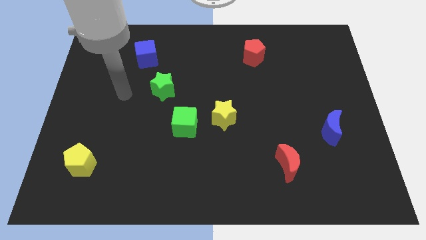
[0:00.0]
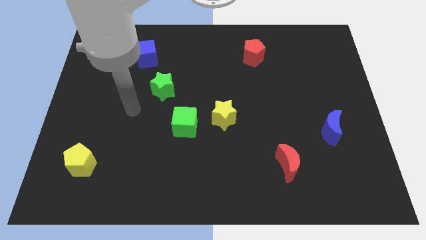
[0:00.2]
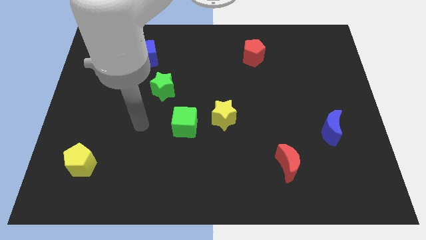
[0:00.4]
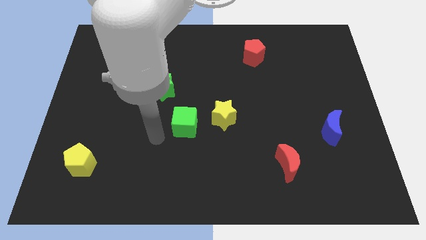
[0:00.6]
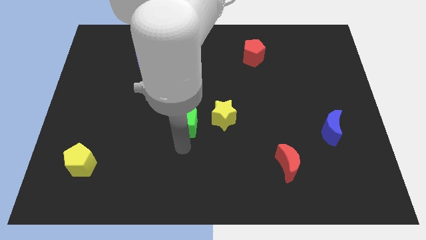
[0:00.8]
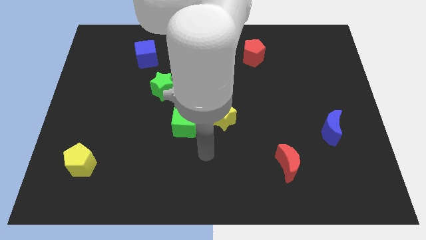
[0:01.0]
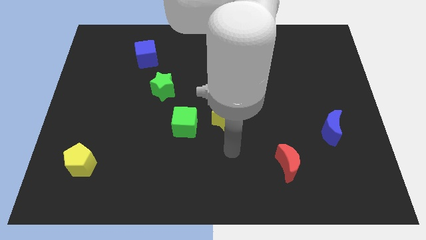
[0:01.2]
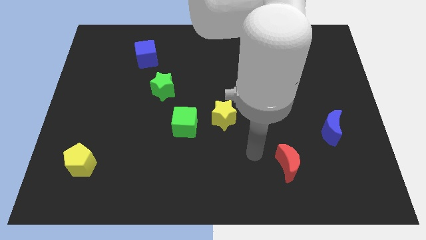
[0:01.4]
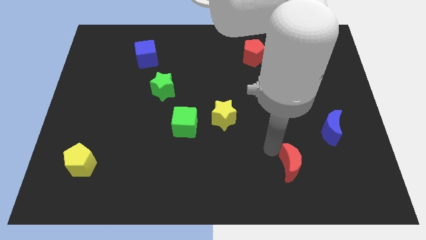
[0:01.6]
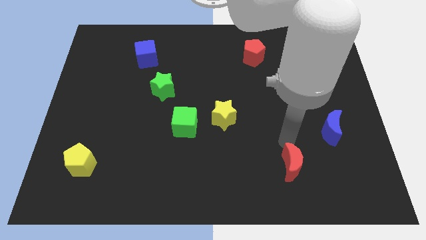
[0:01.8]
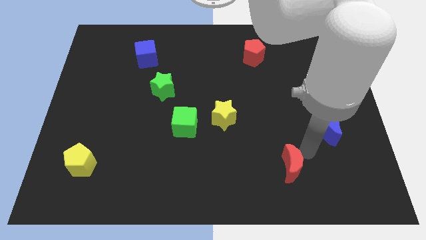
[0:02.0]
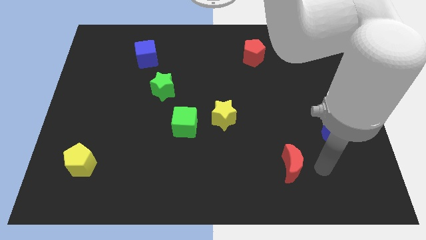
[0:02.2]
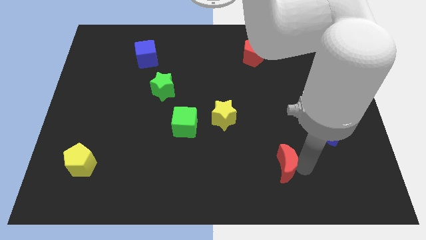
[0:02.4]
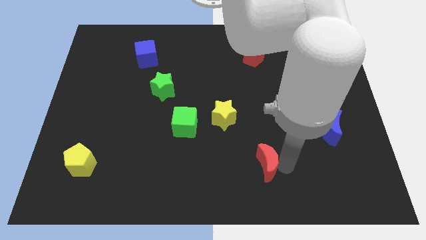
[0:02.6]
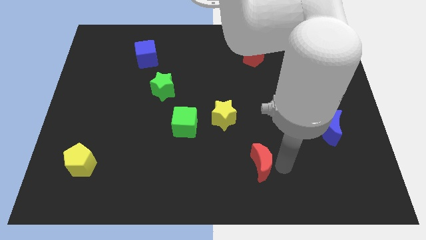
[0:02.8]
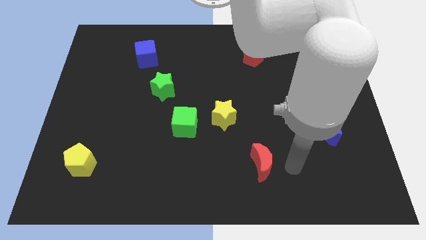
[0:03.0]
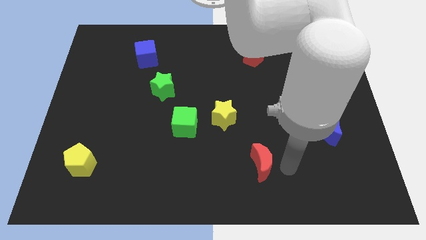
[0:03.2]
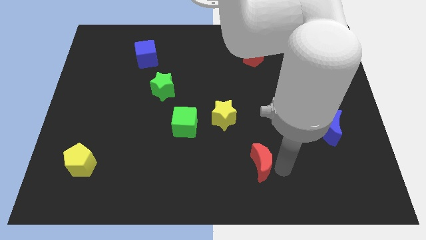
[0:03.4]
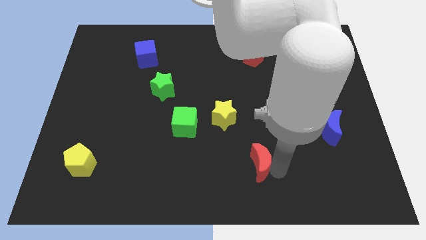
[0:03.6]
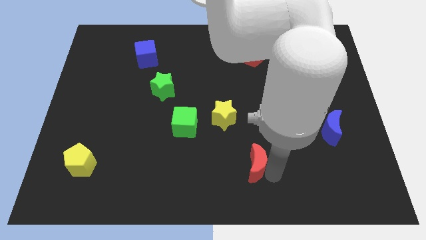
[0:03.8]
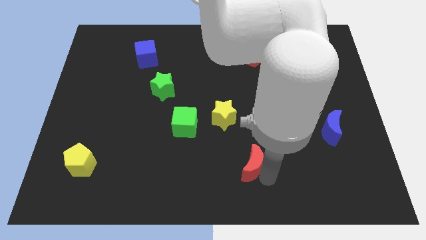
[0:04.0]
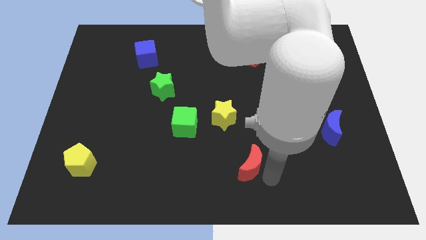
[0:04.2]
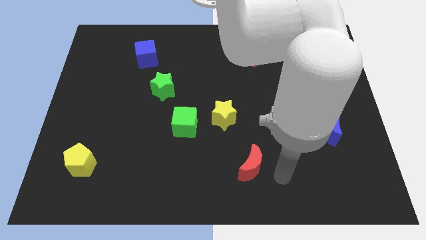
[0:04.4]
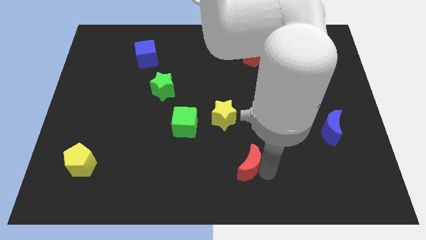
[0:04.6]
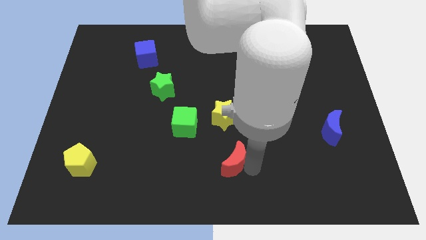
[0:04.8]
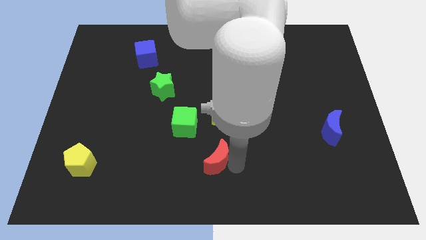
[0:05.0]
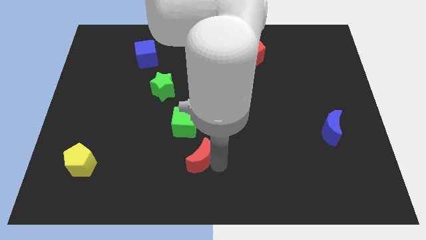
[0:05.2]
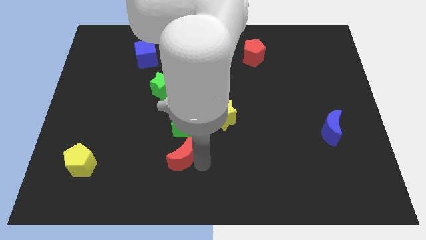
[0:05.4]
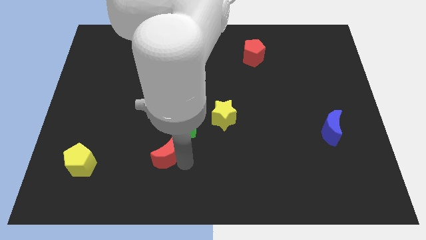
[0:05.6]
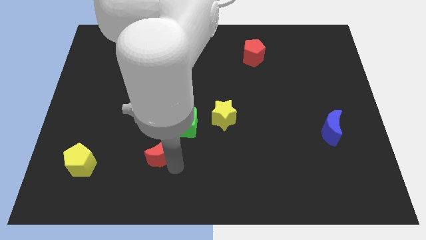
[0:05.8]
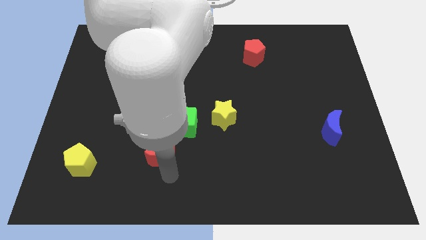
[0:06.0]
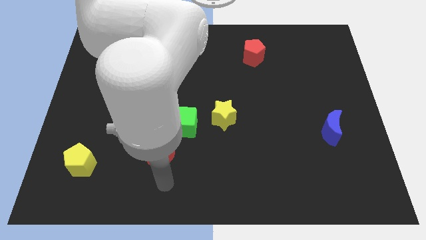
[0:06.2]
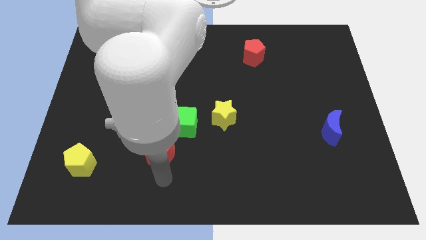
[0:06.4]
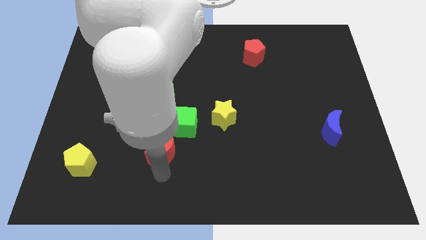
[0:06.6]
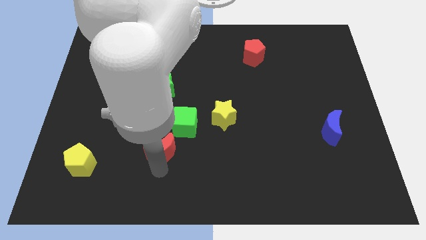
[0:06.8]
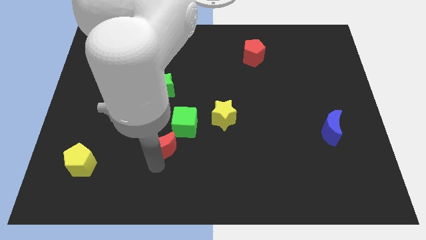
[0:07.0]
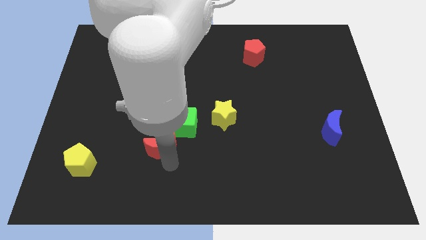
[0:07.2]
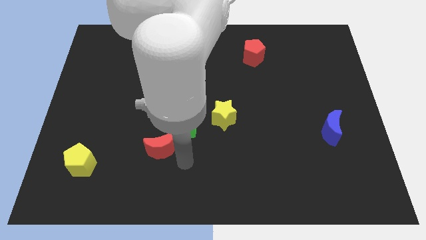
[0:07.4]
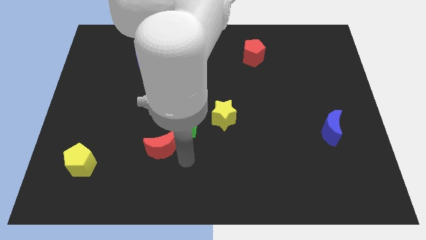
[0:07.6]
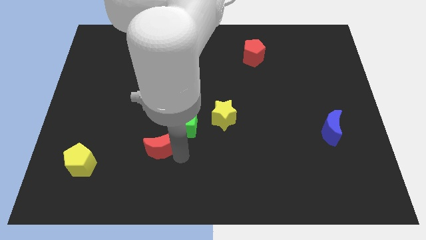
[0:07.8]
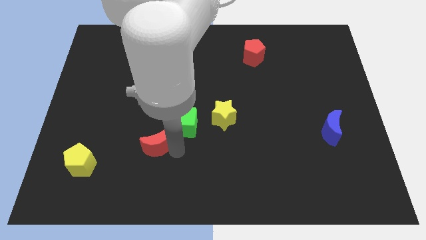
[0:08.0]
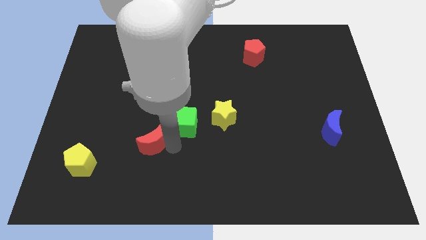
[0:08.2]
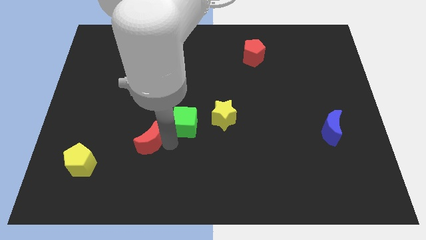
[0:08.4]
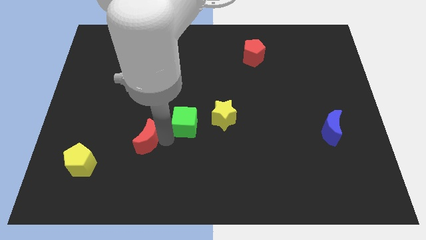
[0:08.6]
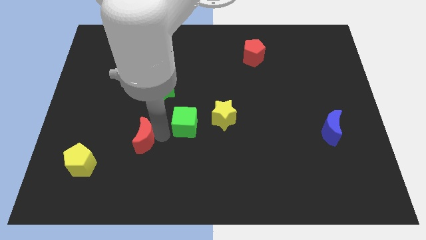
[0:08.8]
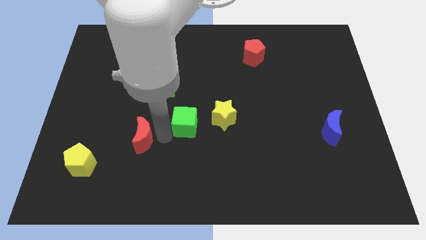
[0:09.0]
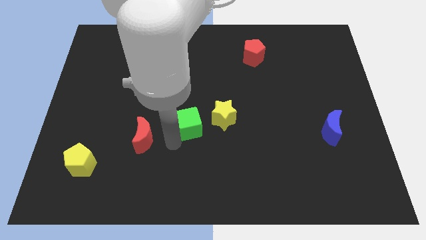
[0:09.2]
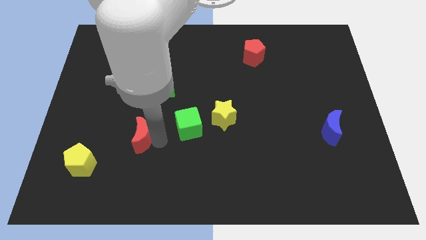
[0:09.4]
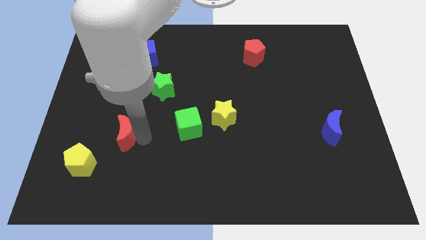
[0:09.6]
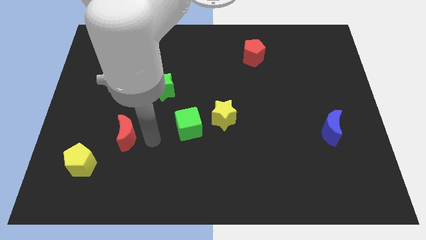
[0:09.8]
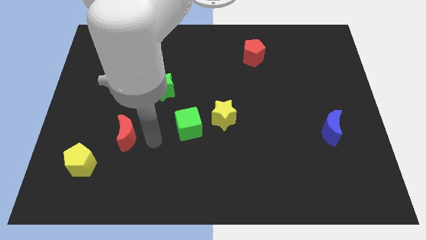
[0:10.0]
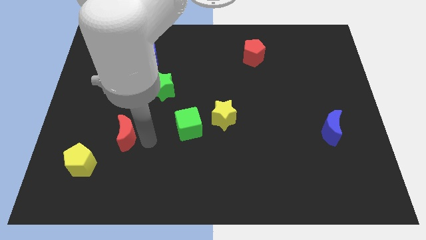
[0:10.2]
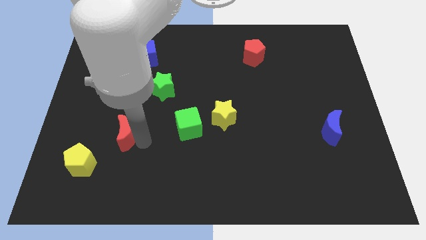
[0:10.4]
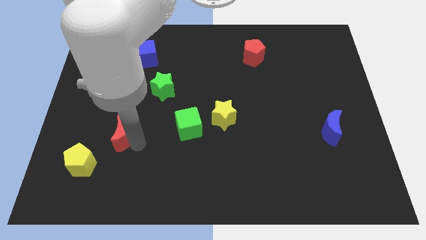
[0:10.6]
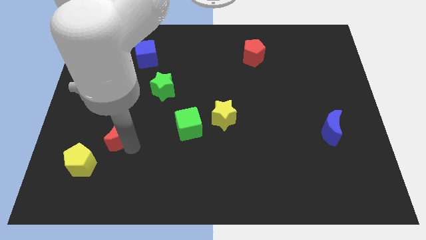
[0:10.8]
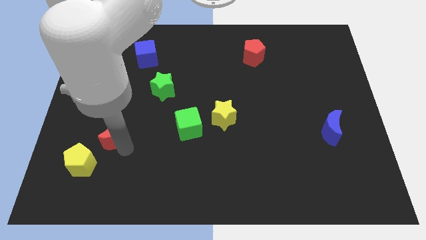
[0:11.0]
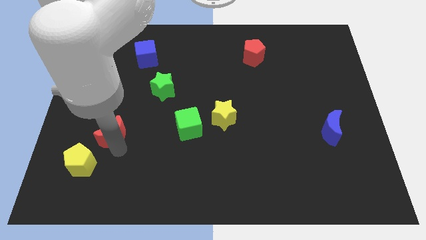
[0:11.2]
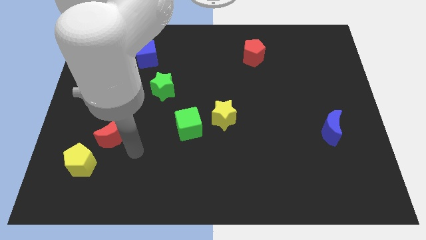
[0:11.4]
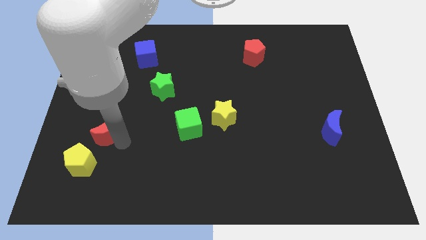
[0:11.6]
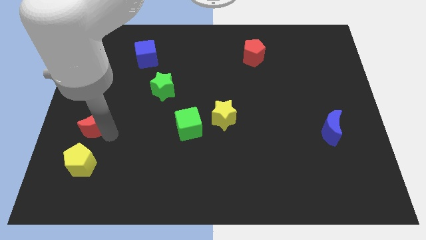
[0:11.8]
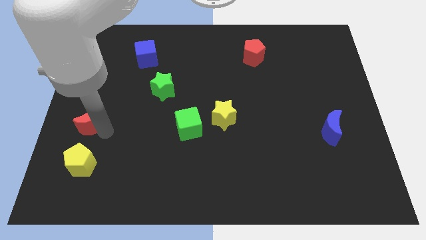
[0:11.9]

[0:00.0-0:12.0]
push the red moon to the left side of the board

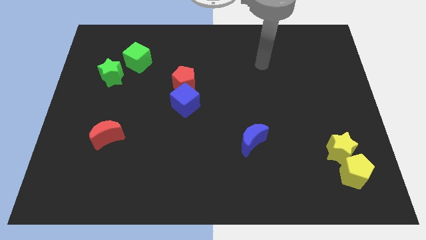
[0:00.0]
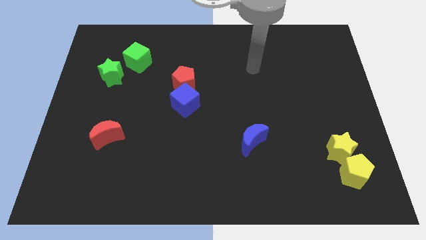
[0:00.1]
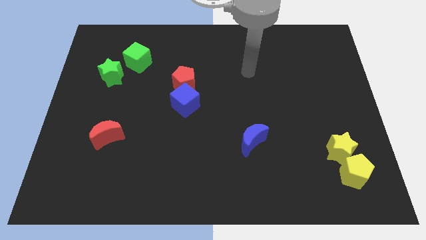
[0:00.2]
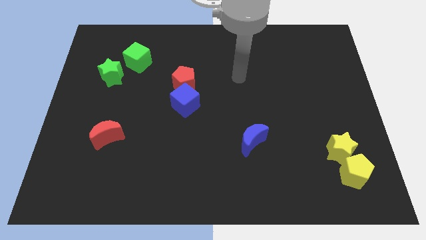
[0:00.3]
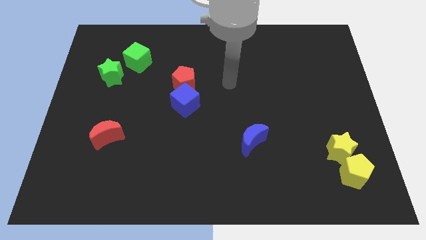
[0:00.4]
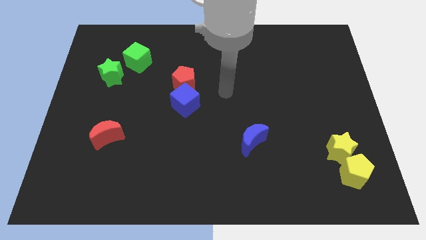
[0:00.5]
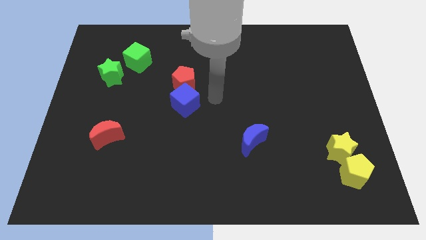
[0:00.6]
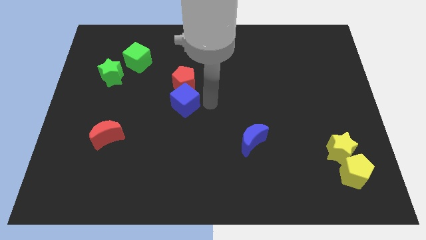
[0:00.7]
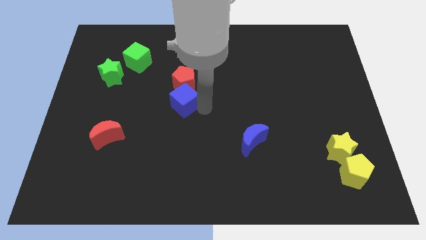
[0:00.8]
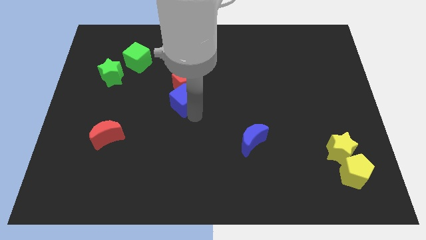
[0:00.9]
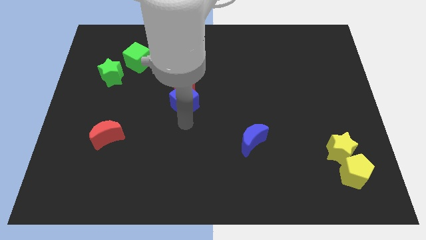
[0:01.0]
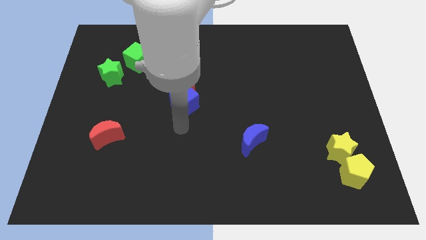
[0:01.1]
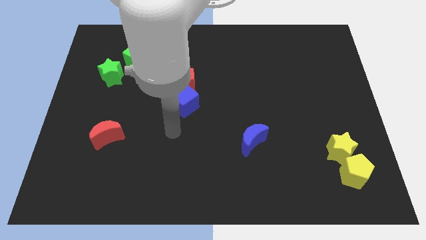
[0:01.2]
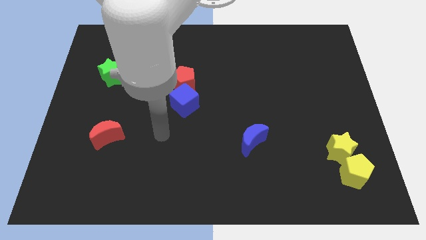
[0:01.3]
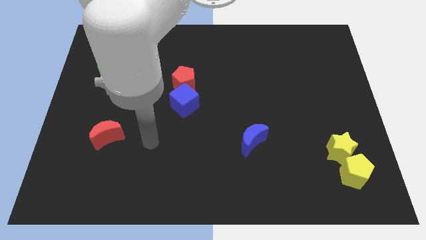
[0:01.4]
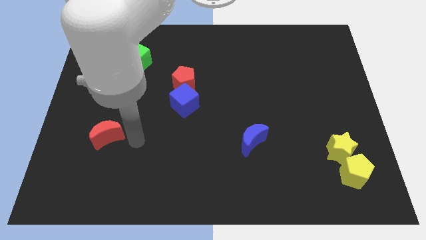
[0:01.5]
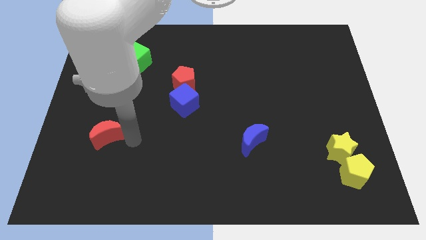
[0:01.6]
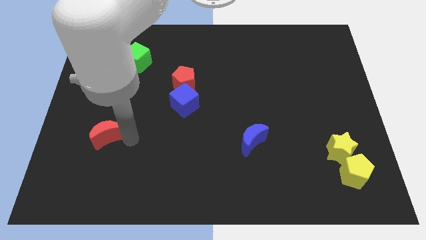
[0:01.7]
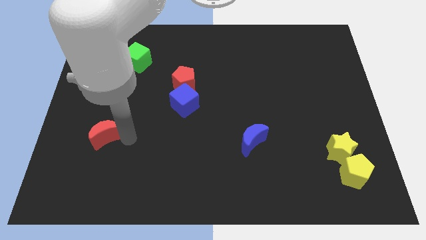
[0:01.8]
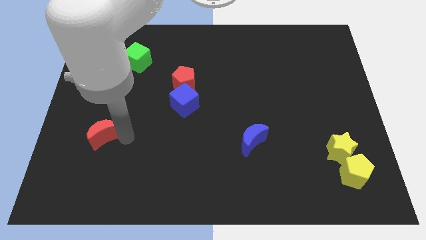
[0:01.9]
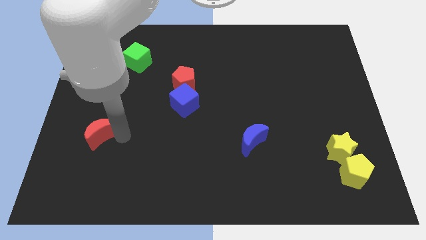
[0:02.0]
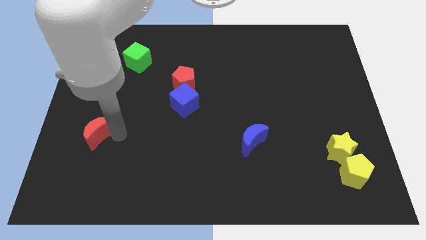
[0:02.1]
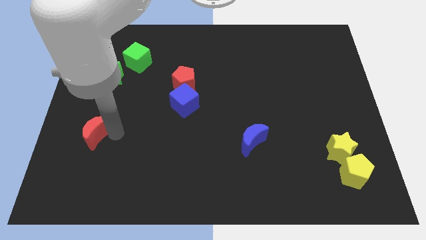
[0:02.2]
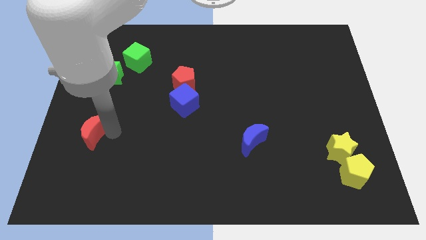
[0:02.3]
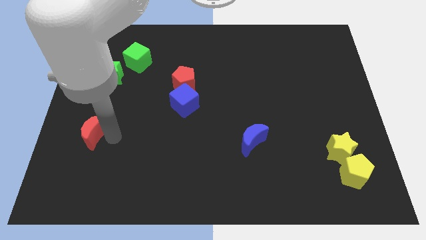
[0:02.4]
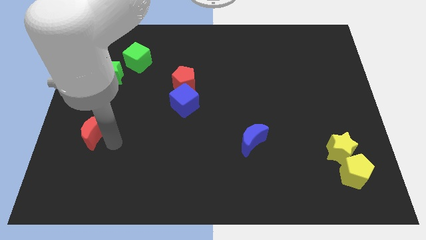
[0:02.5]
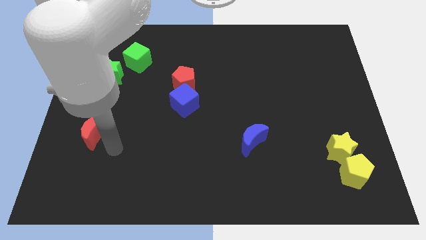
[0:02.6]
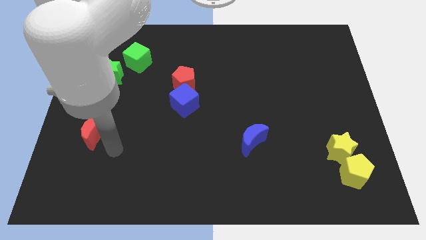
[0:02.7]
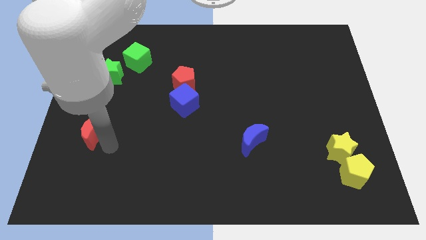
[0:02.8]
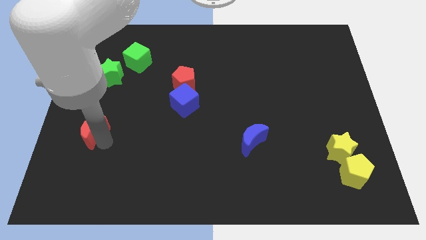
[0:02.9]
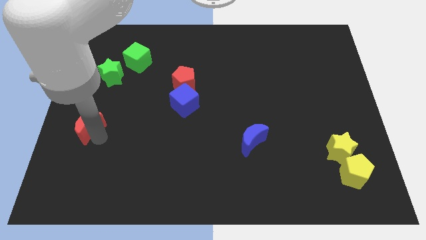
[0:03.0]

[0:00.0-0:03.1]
move the red moon to the left side
